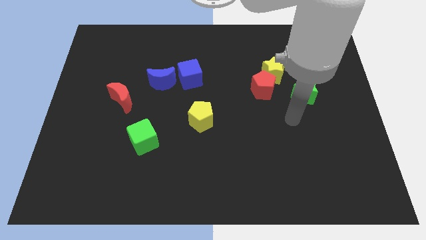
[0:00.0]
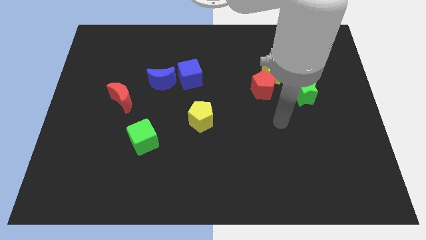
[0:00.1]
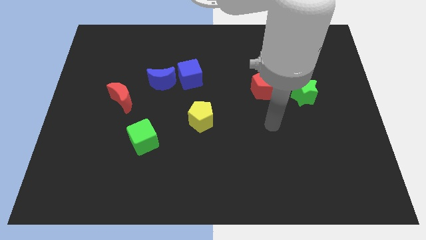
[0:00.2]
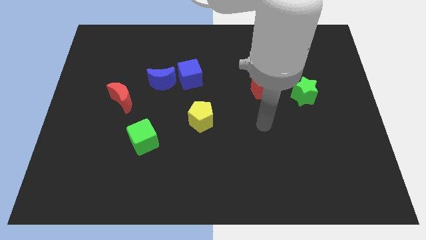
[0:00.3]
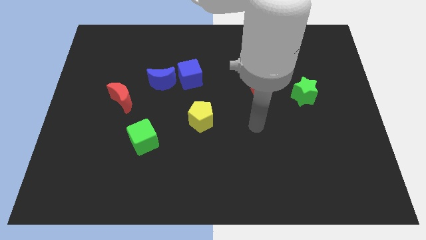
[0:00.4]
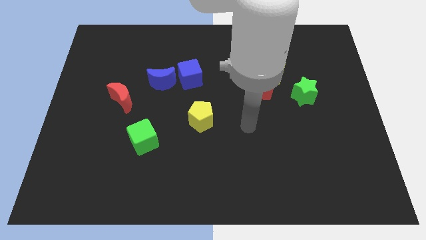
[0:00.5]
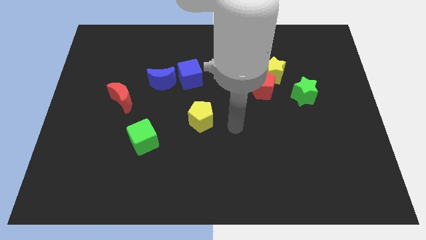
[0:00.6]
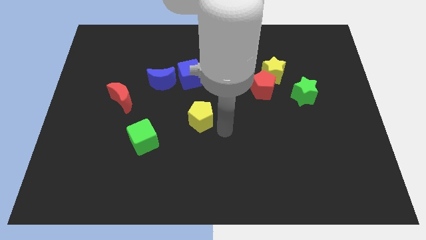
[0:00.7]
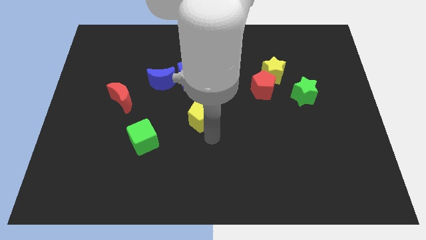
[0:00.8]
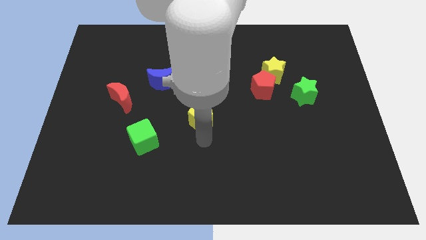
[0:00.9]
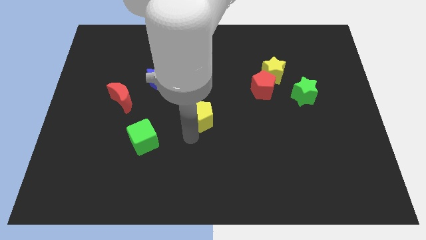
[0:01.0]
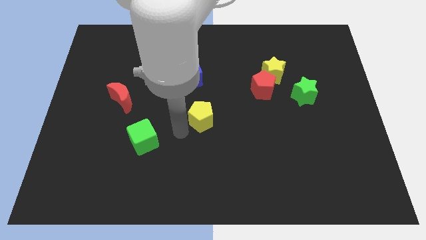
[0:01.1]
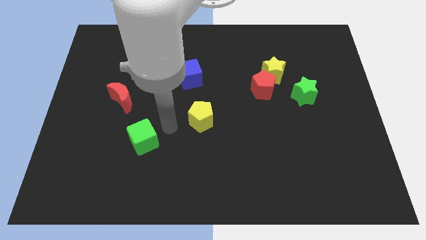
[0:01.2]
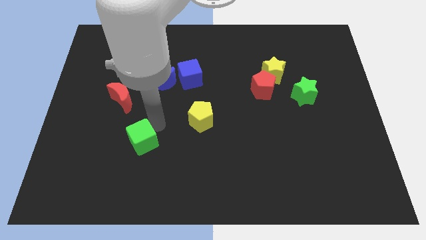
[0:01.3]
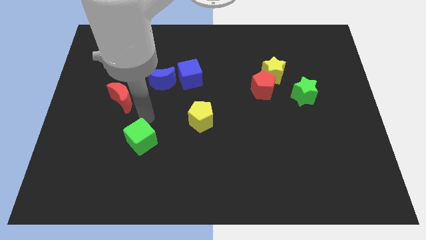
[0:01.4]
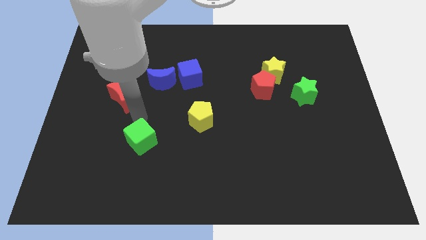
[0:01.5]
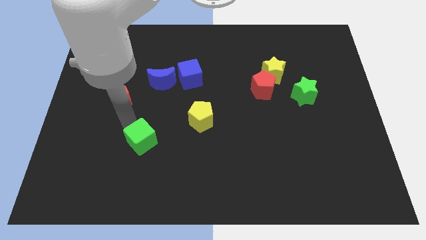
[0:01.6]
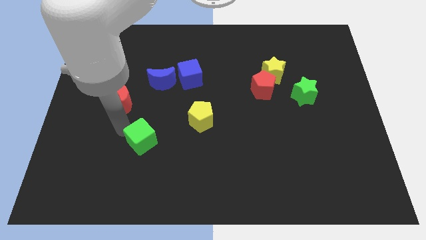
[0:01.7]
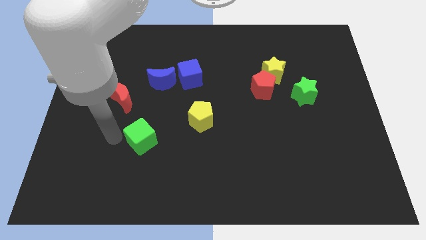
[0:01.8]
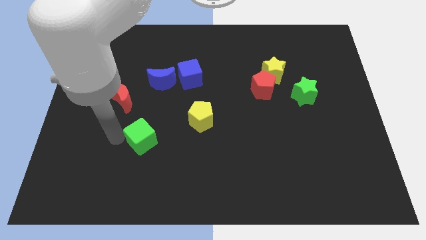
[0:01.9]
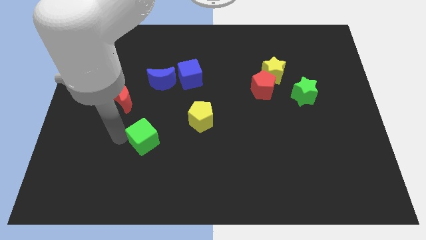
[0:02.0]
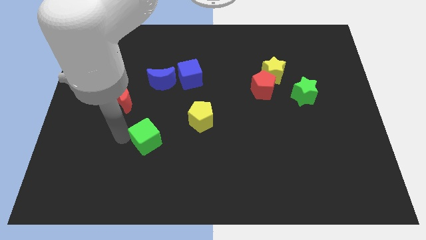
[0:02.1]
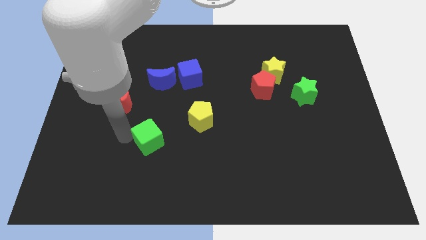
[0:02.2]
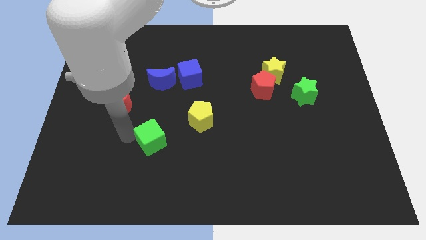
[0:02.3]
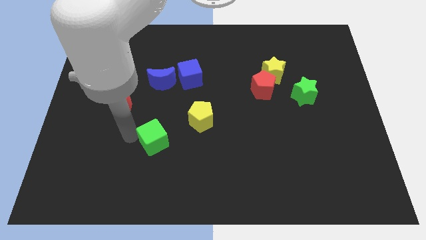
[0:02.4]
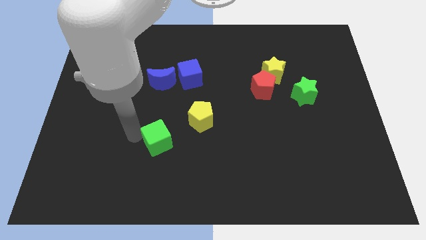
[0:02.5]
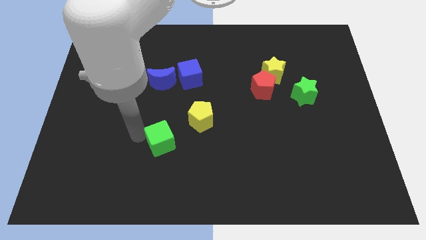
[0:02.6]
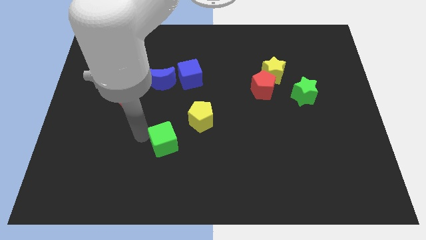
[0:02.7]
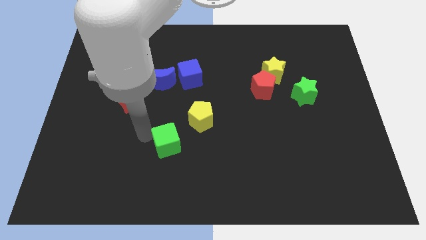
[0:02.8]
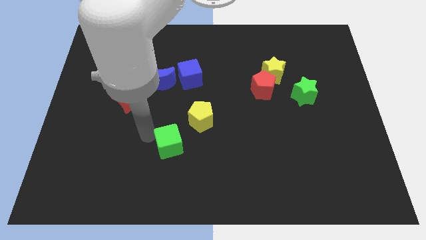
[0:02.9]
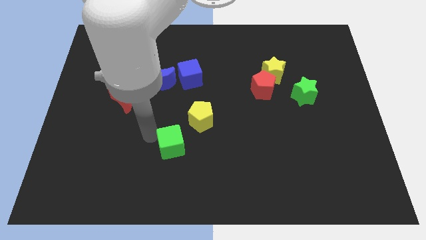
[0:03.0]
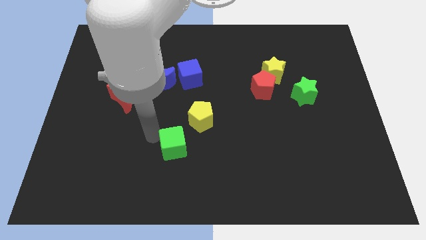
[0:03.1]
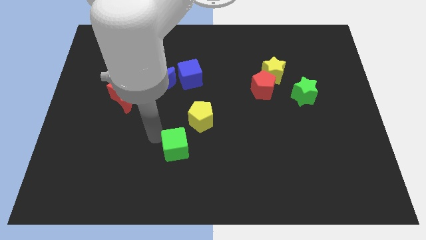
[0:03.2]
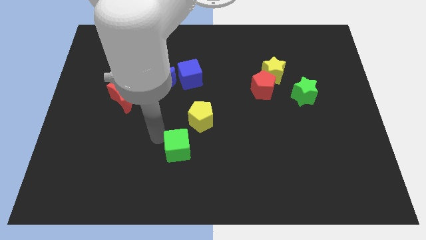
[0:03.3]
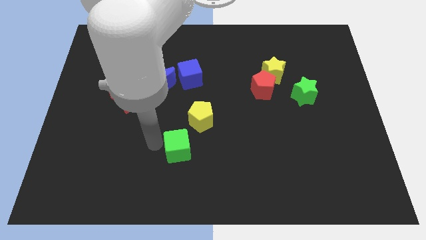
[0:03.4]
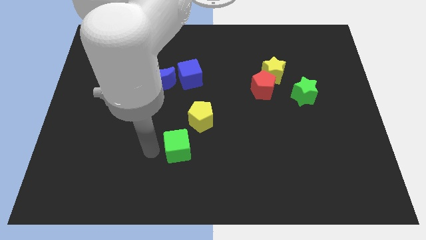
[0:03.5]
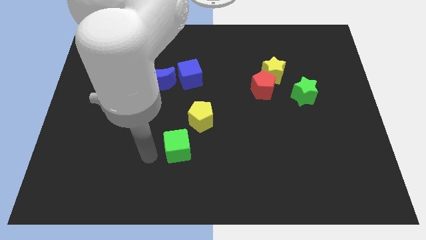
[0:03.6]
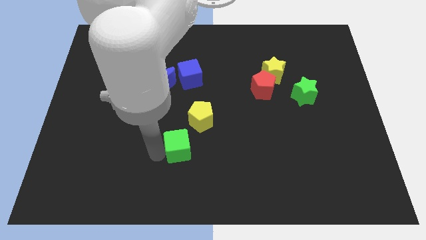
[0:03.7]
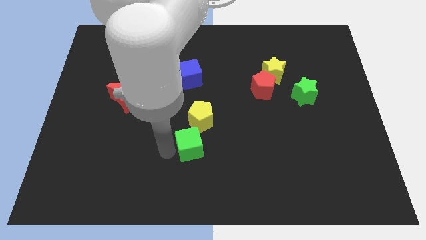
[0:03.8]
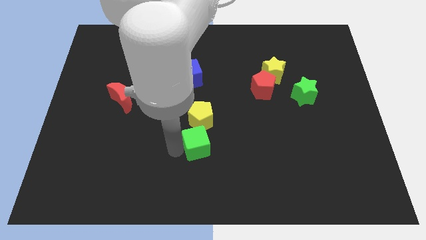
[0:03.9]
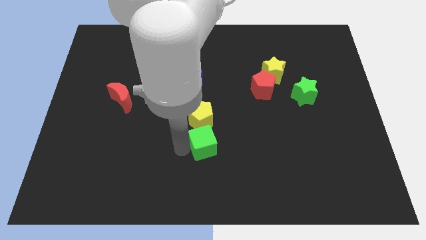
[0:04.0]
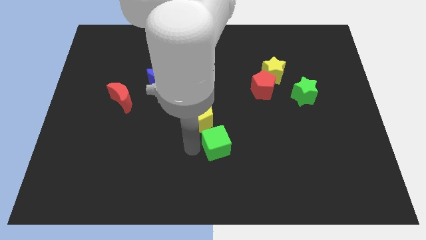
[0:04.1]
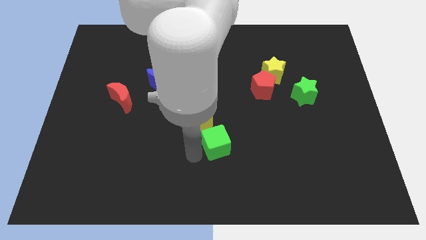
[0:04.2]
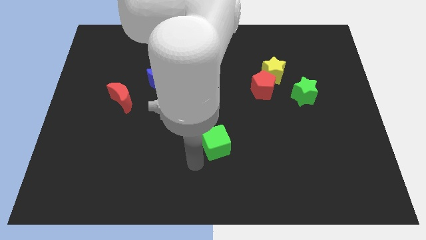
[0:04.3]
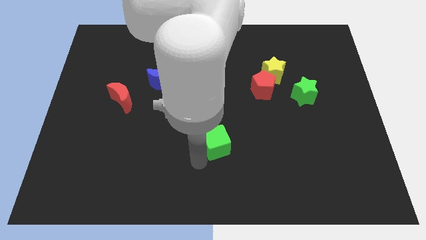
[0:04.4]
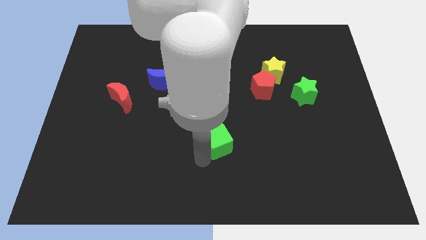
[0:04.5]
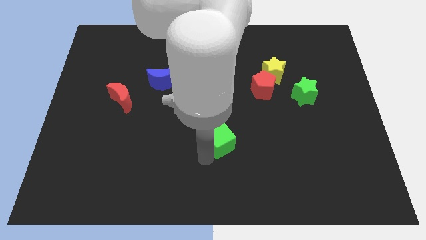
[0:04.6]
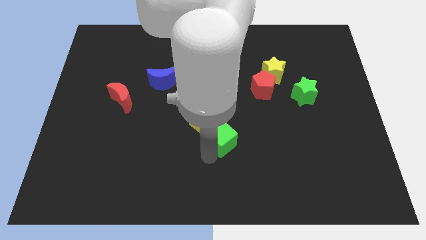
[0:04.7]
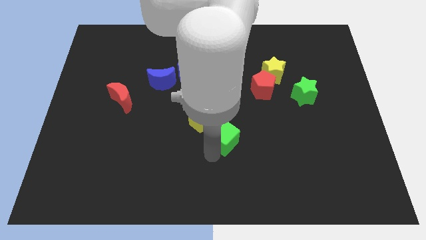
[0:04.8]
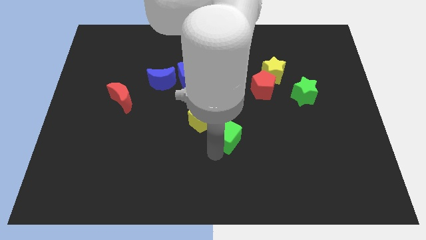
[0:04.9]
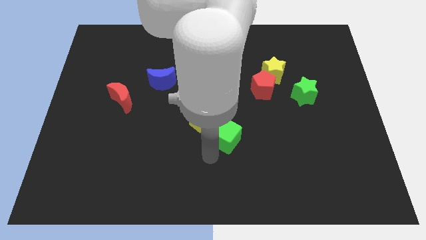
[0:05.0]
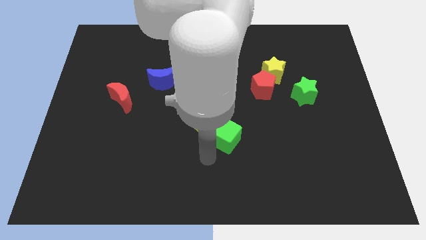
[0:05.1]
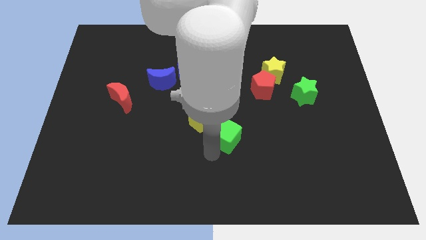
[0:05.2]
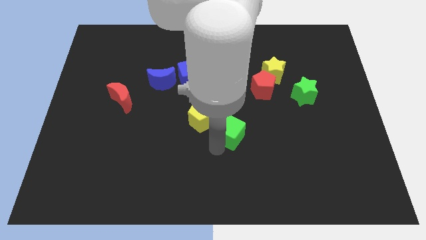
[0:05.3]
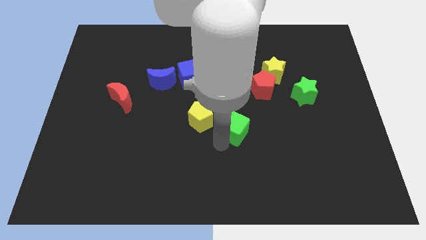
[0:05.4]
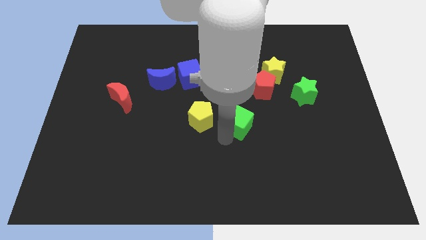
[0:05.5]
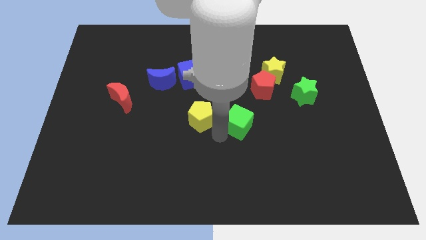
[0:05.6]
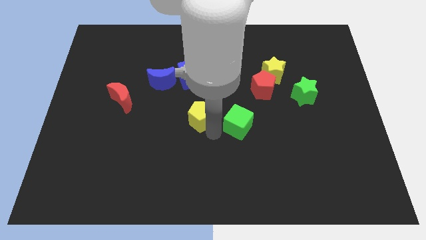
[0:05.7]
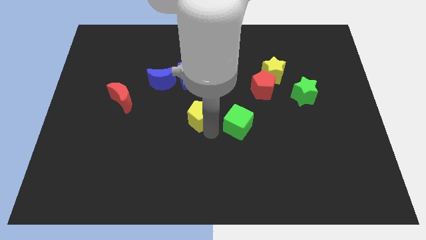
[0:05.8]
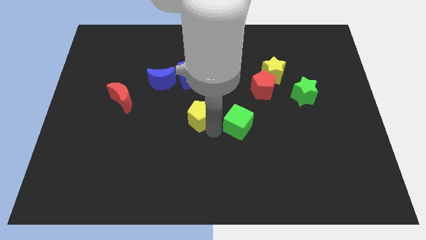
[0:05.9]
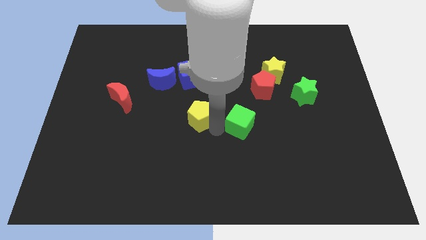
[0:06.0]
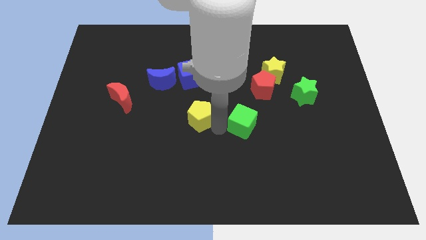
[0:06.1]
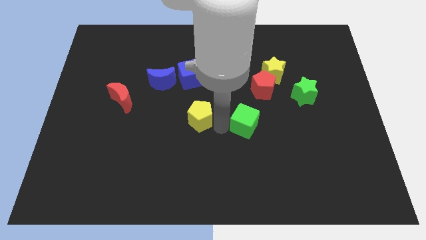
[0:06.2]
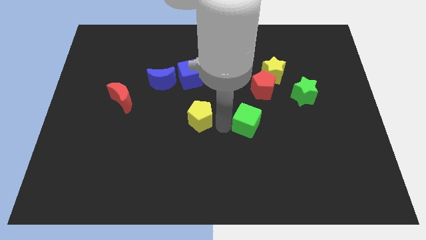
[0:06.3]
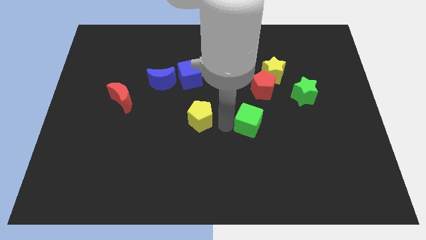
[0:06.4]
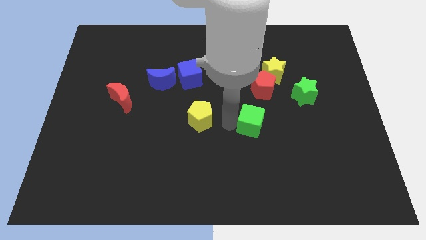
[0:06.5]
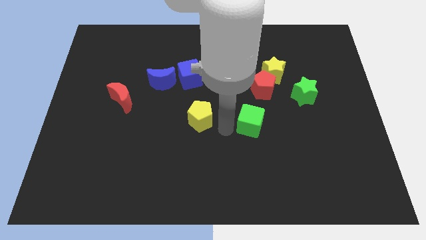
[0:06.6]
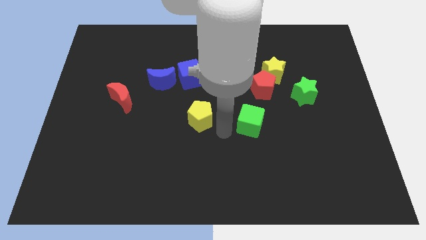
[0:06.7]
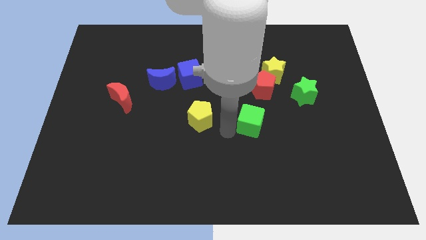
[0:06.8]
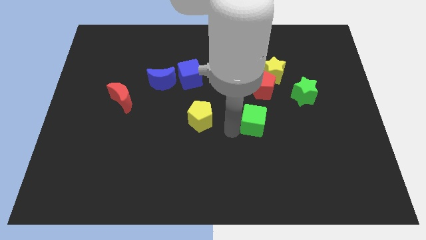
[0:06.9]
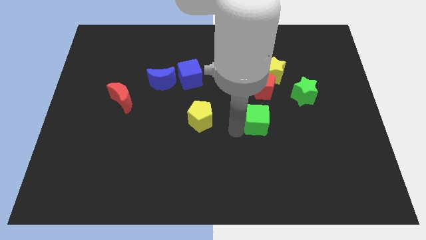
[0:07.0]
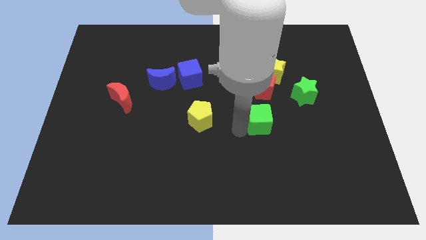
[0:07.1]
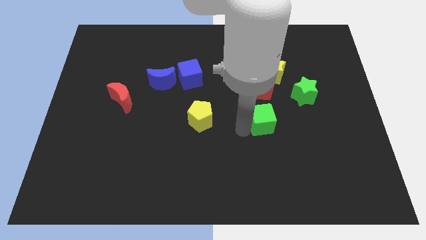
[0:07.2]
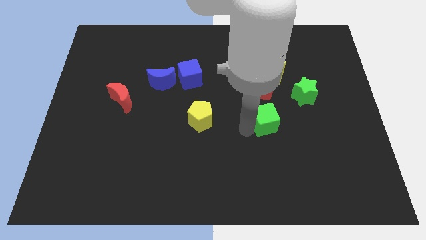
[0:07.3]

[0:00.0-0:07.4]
slide the green cube to the bottom left of the green star

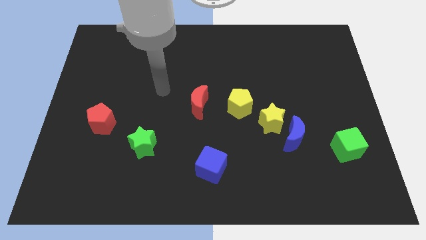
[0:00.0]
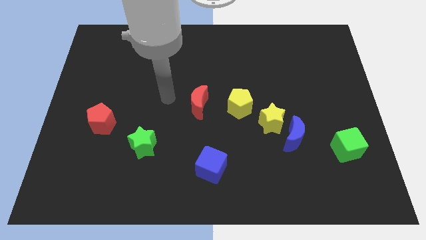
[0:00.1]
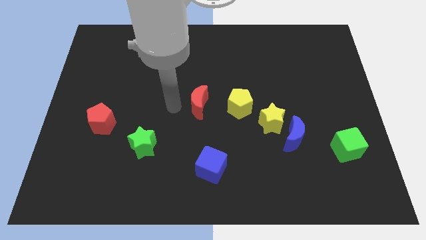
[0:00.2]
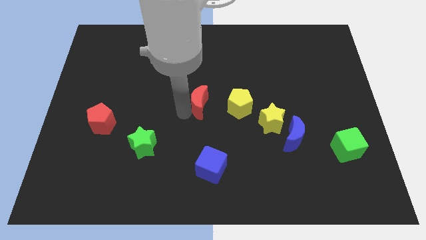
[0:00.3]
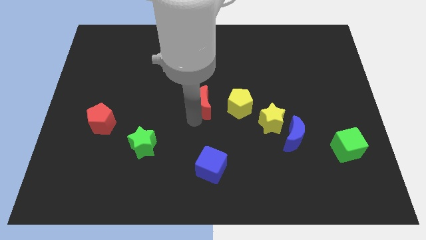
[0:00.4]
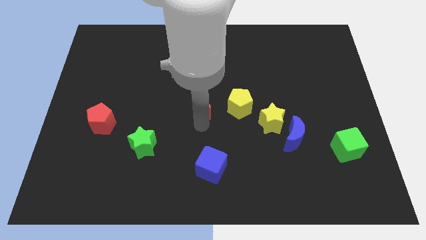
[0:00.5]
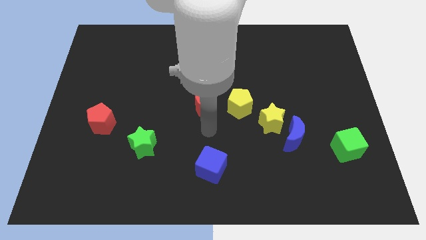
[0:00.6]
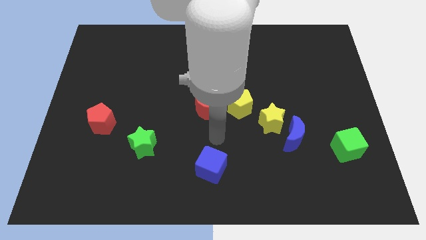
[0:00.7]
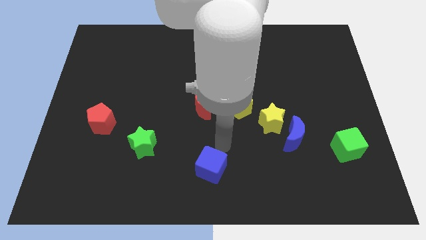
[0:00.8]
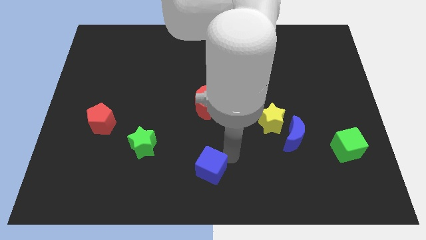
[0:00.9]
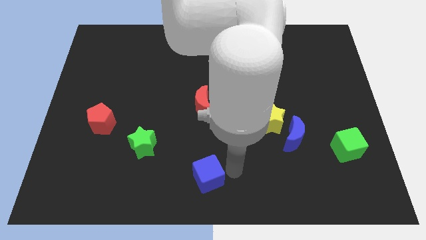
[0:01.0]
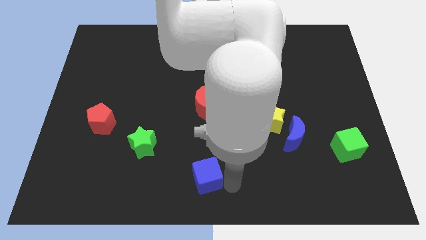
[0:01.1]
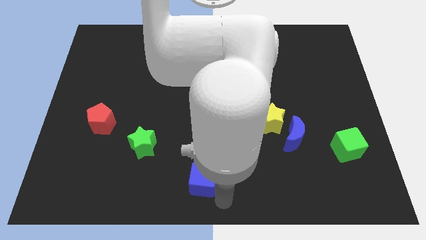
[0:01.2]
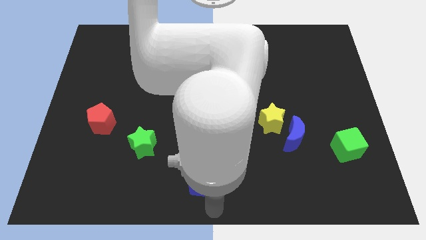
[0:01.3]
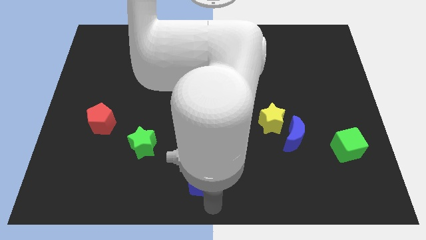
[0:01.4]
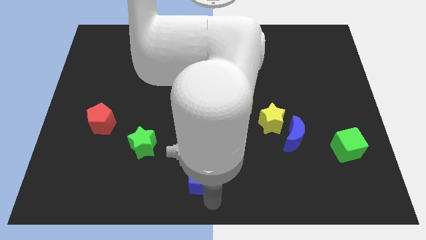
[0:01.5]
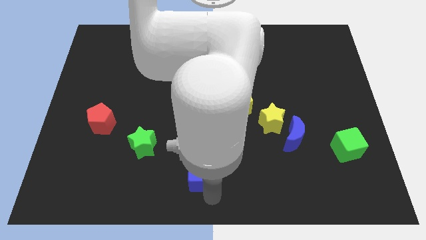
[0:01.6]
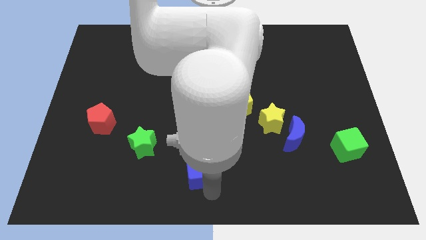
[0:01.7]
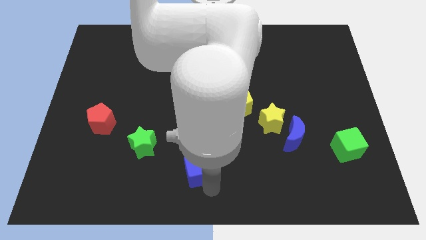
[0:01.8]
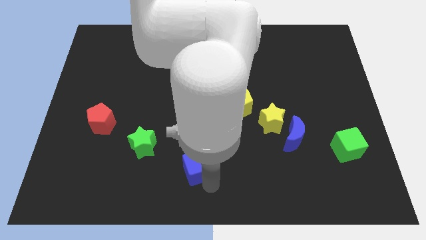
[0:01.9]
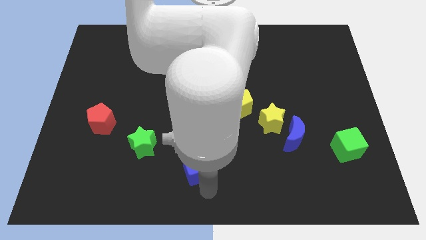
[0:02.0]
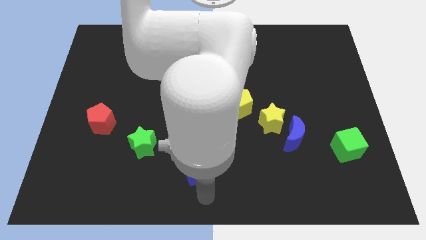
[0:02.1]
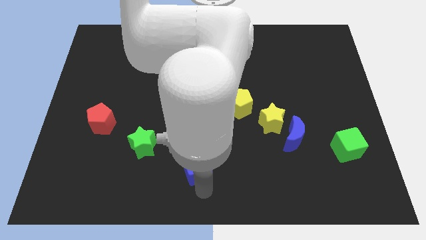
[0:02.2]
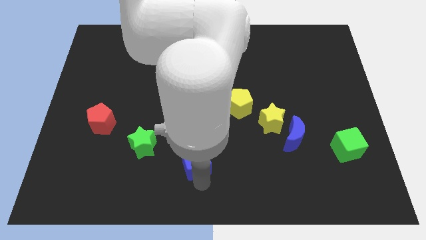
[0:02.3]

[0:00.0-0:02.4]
push the blue cube to the right of the green star
